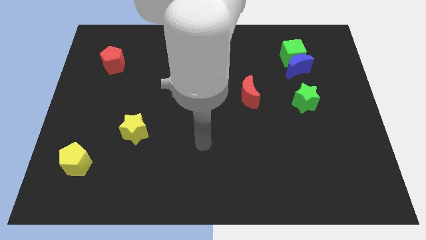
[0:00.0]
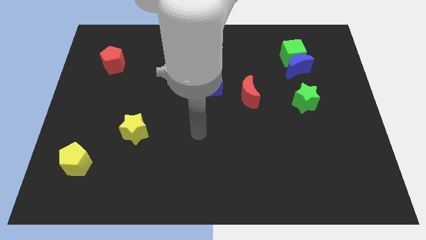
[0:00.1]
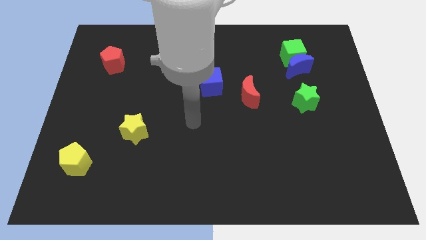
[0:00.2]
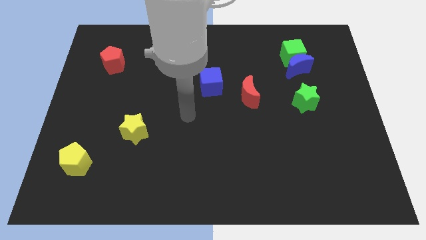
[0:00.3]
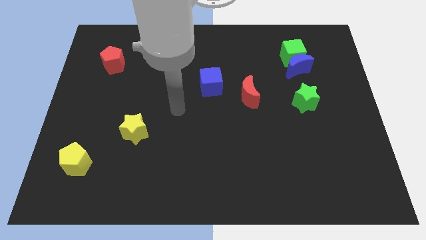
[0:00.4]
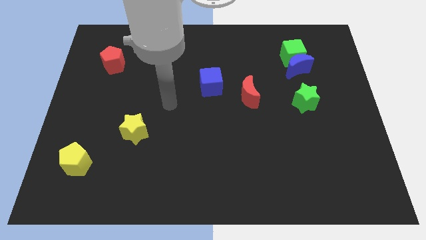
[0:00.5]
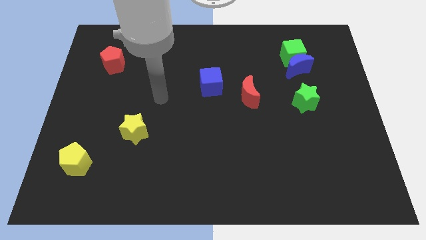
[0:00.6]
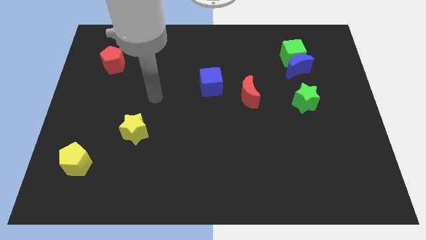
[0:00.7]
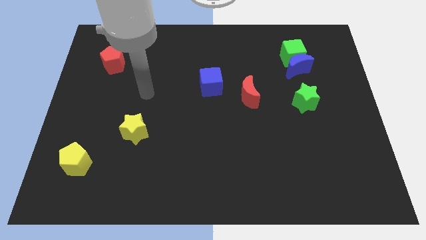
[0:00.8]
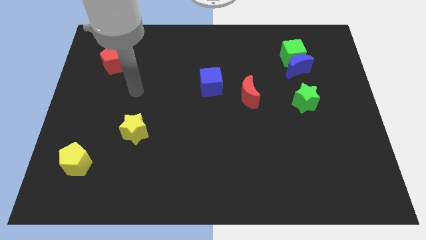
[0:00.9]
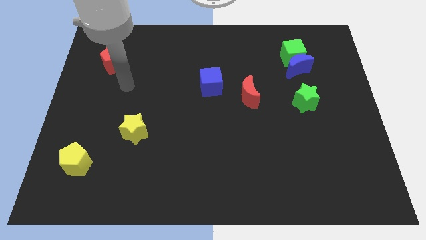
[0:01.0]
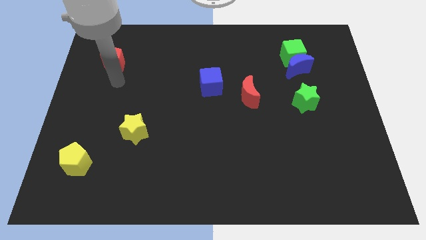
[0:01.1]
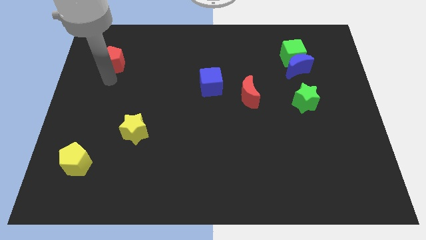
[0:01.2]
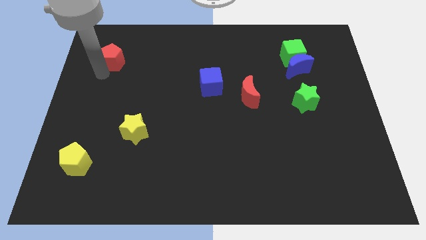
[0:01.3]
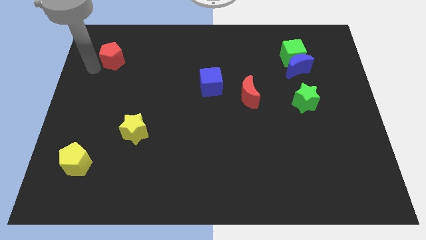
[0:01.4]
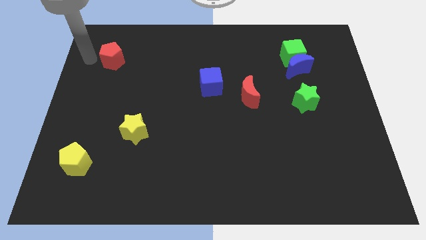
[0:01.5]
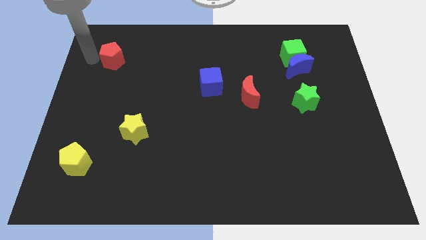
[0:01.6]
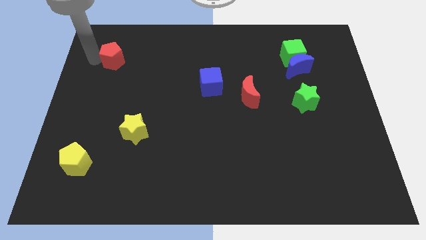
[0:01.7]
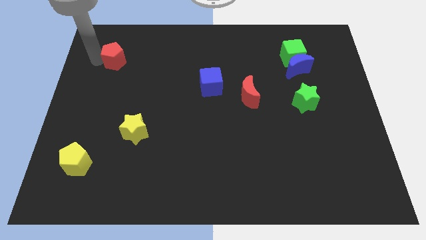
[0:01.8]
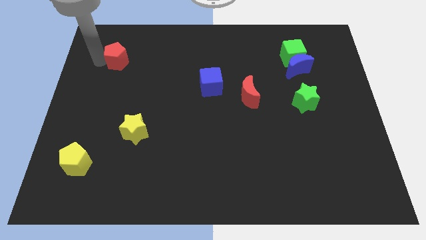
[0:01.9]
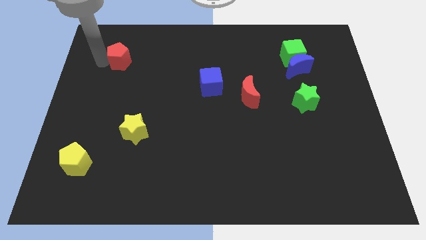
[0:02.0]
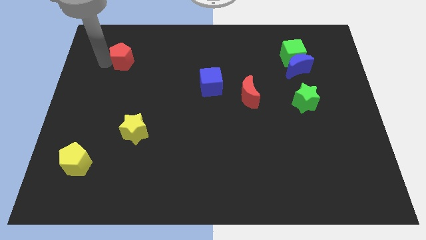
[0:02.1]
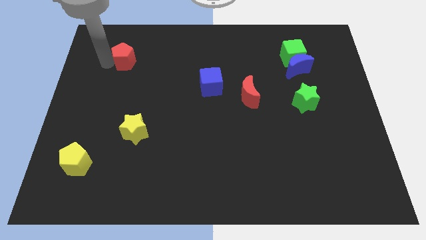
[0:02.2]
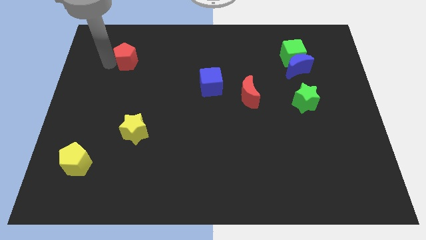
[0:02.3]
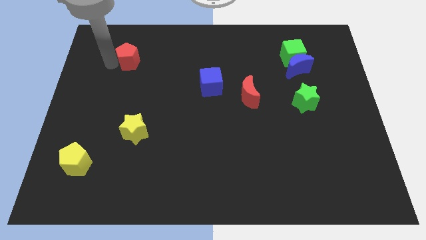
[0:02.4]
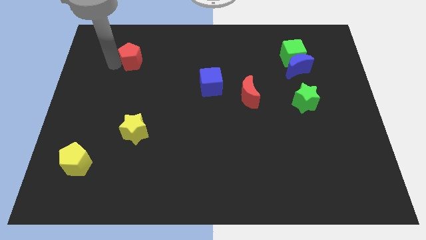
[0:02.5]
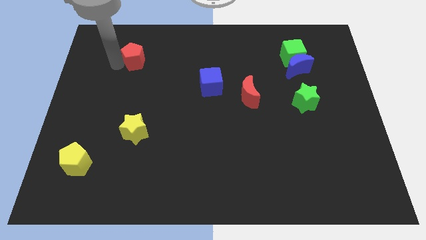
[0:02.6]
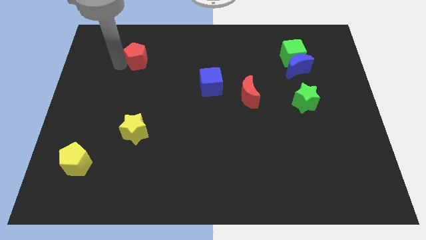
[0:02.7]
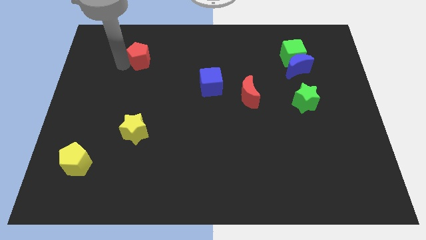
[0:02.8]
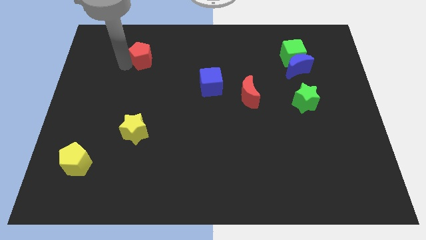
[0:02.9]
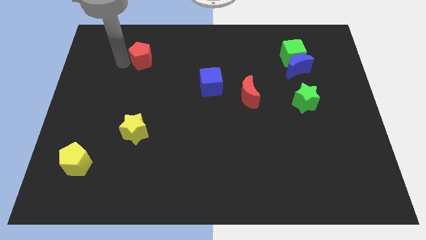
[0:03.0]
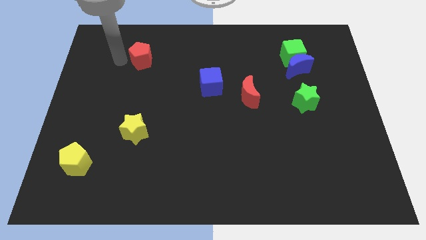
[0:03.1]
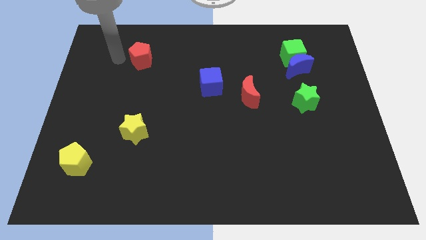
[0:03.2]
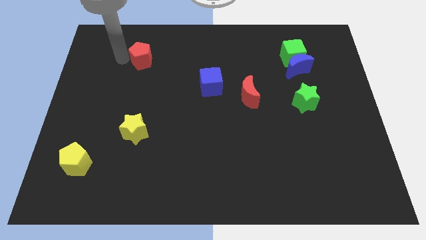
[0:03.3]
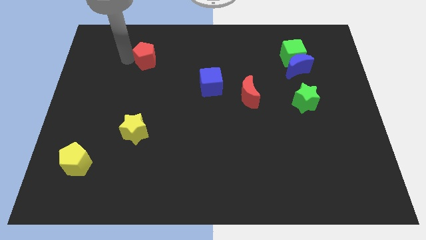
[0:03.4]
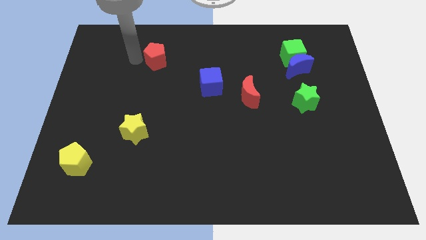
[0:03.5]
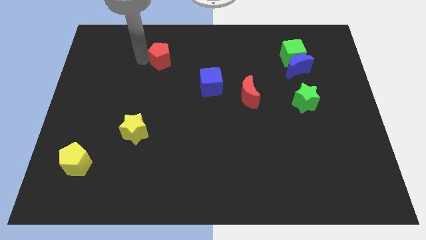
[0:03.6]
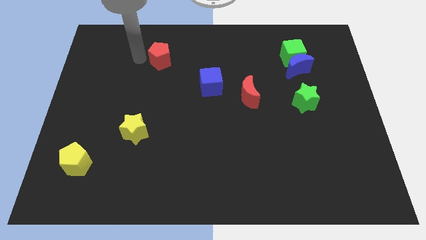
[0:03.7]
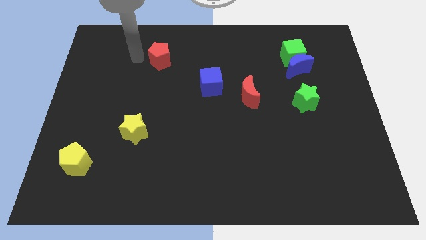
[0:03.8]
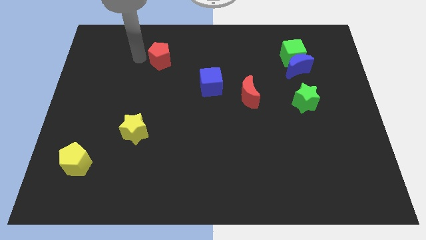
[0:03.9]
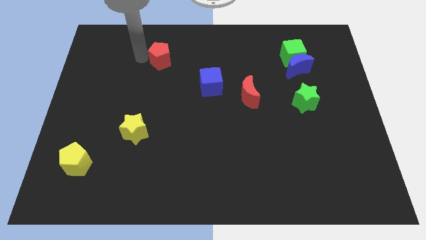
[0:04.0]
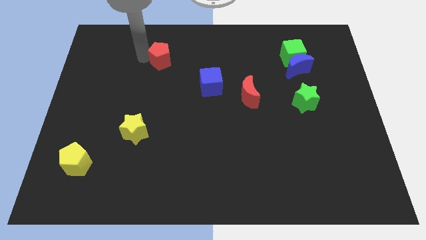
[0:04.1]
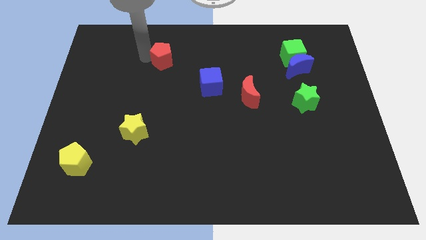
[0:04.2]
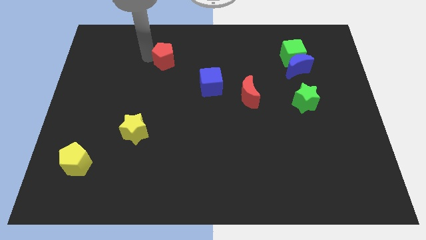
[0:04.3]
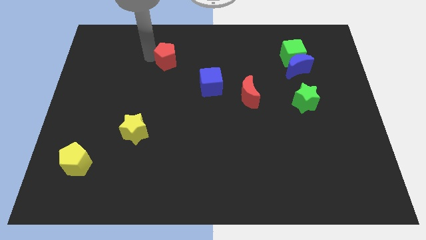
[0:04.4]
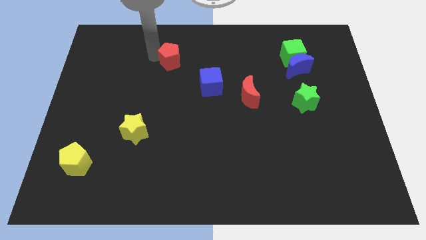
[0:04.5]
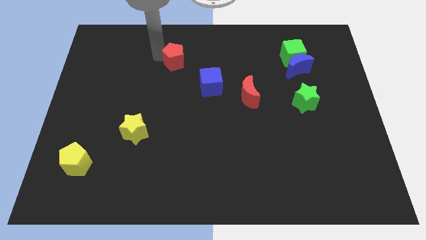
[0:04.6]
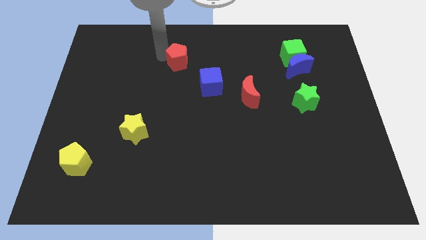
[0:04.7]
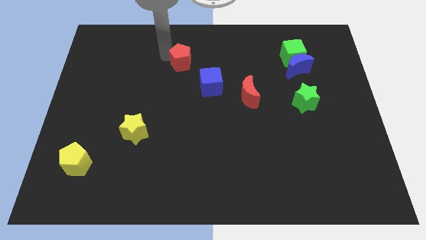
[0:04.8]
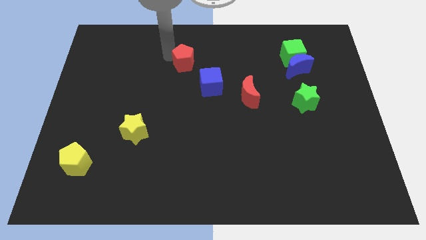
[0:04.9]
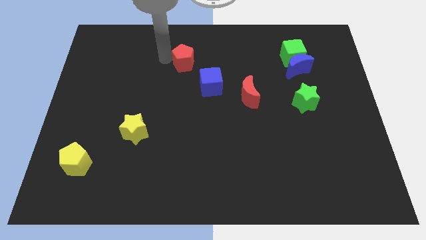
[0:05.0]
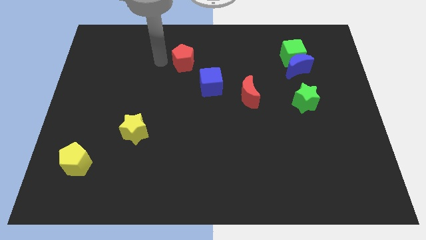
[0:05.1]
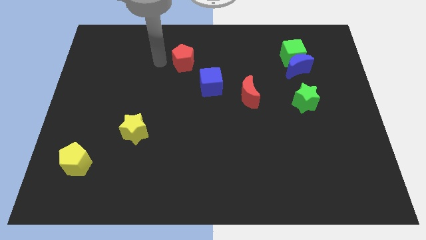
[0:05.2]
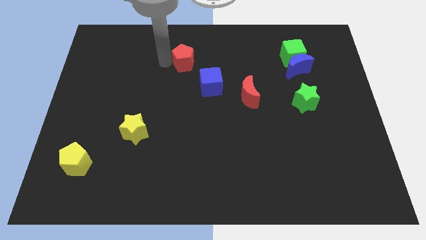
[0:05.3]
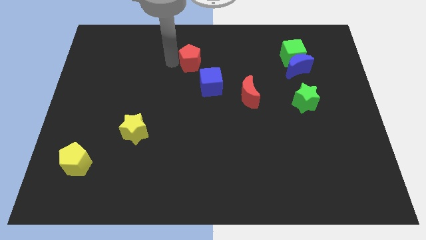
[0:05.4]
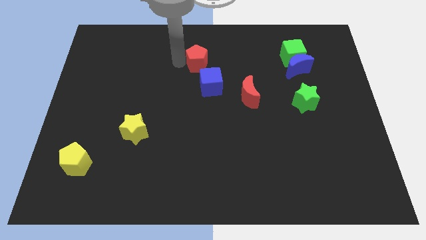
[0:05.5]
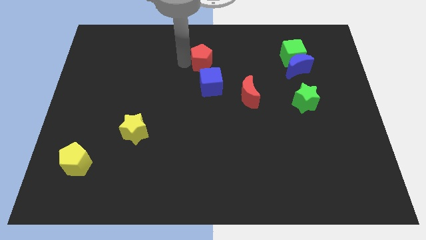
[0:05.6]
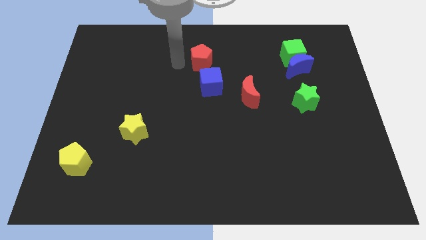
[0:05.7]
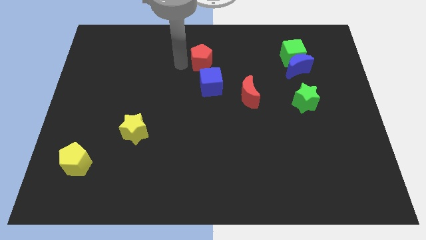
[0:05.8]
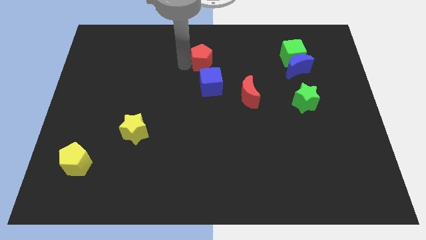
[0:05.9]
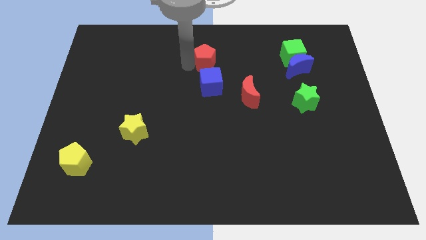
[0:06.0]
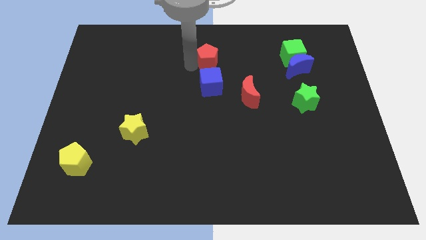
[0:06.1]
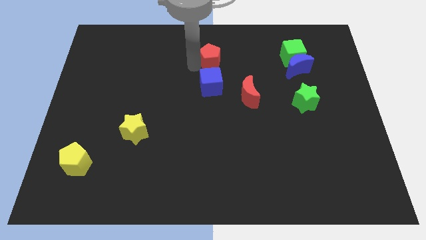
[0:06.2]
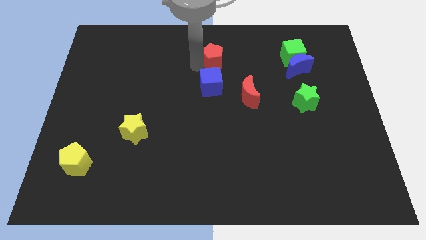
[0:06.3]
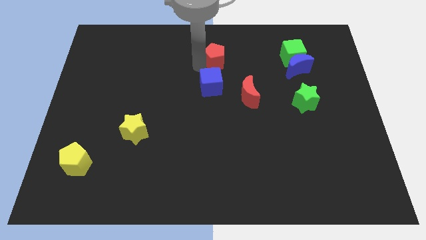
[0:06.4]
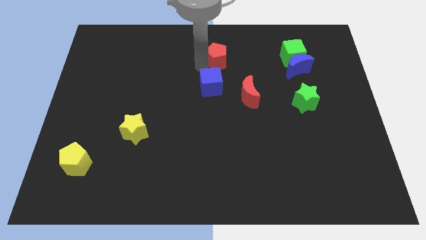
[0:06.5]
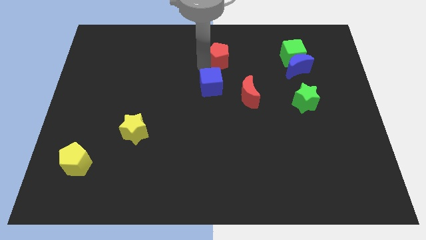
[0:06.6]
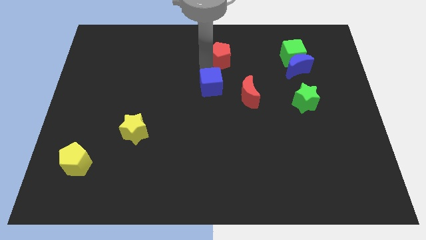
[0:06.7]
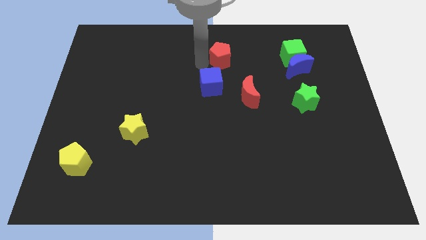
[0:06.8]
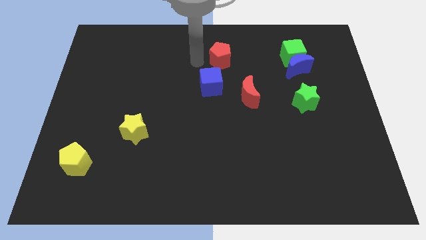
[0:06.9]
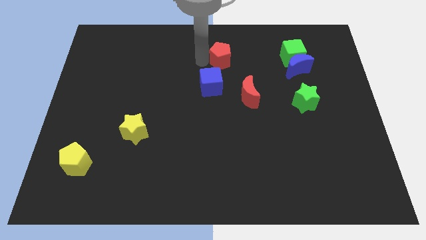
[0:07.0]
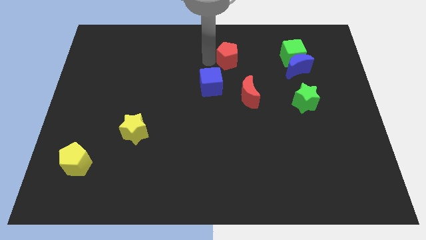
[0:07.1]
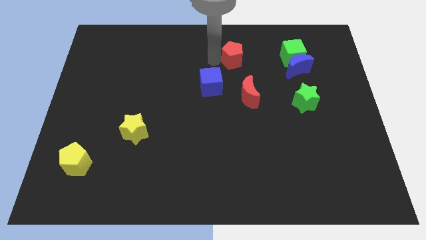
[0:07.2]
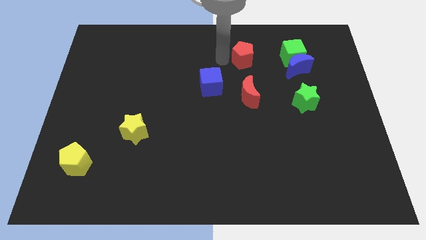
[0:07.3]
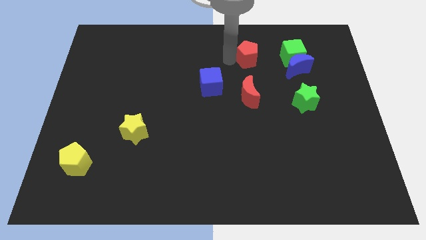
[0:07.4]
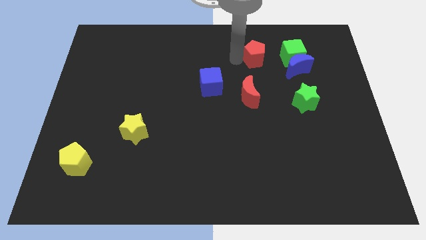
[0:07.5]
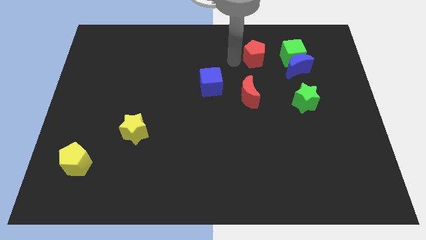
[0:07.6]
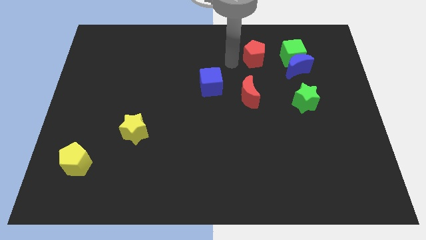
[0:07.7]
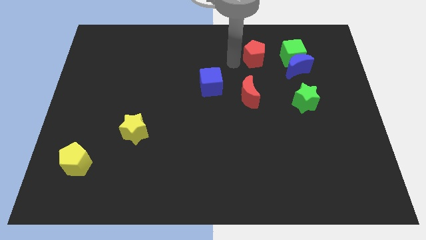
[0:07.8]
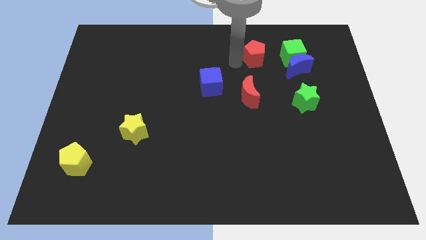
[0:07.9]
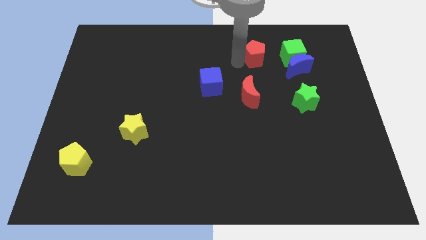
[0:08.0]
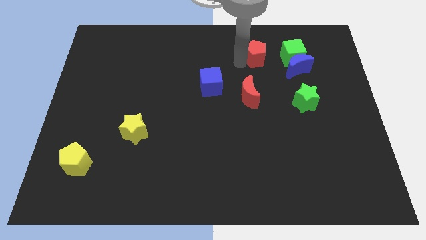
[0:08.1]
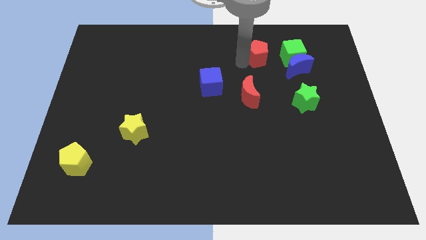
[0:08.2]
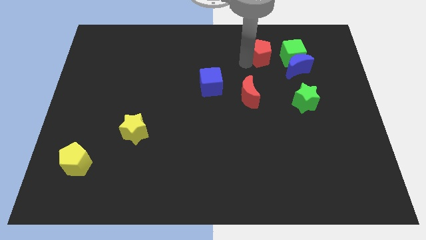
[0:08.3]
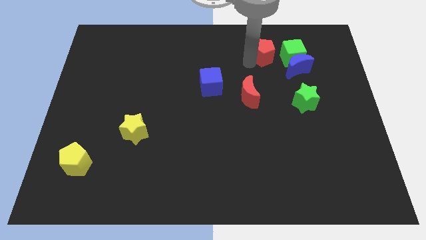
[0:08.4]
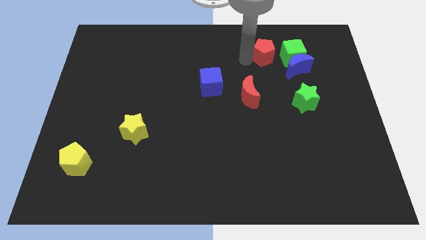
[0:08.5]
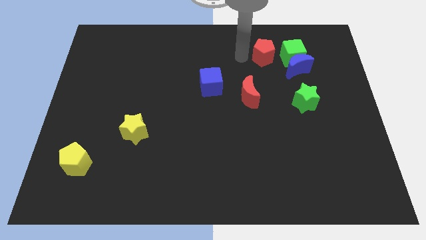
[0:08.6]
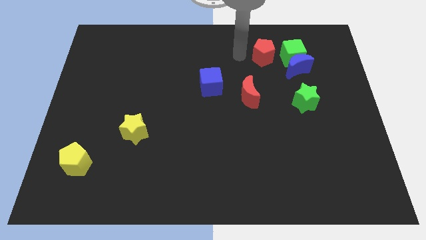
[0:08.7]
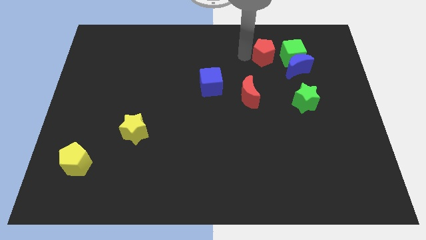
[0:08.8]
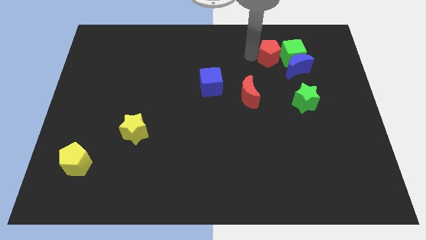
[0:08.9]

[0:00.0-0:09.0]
move the red pentagon to the green cube
